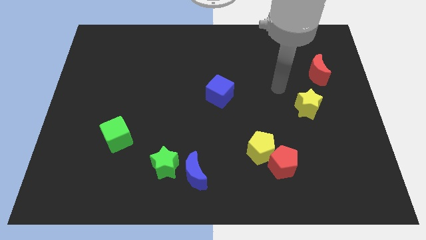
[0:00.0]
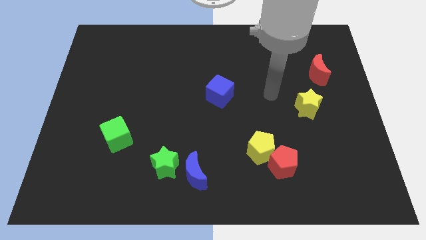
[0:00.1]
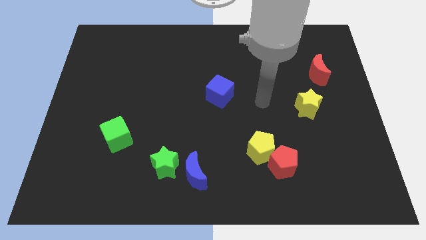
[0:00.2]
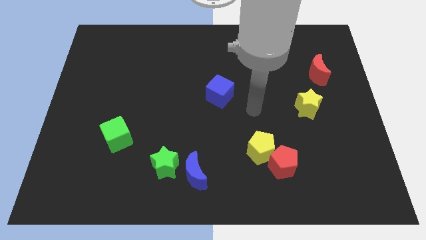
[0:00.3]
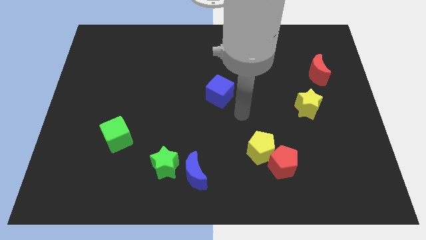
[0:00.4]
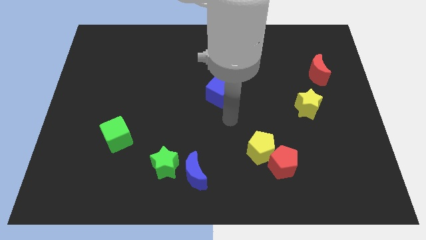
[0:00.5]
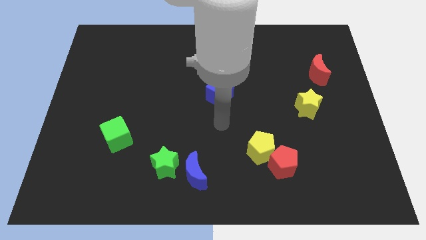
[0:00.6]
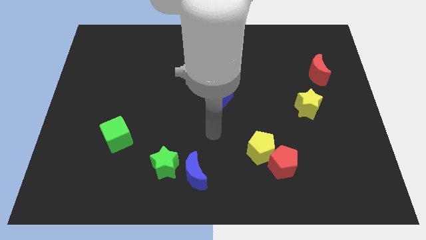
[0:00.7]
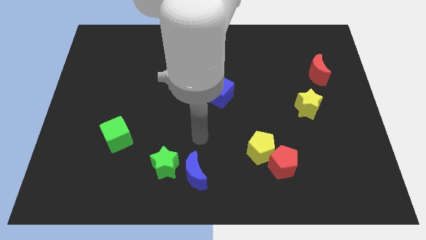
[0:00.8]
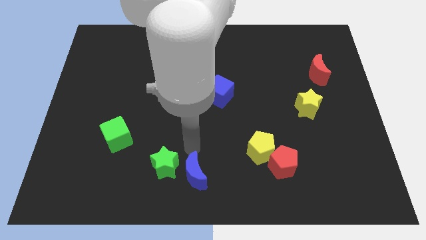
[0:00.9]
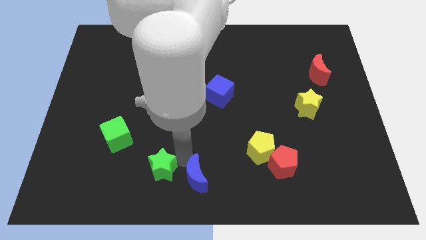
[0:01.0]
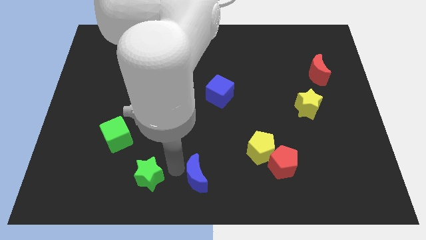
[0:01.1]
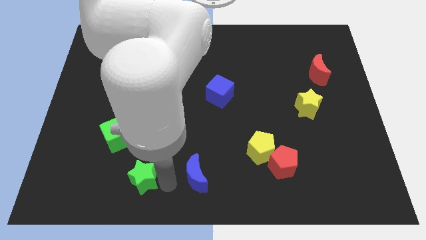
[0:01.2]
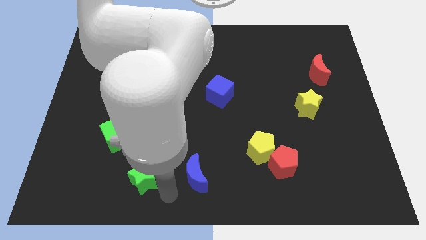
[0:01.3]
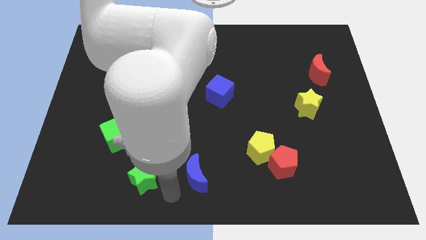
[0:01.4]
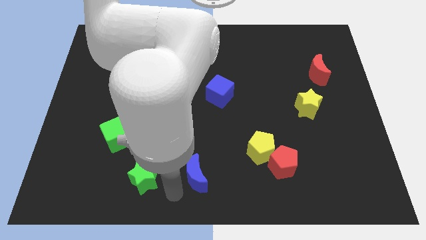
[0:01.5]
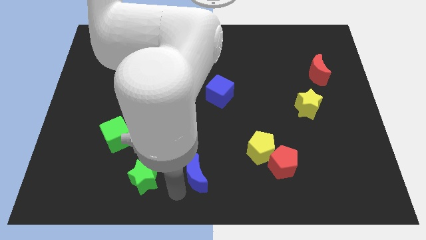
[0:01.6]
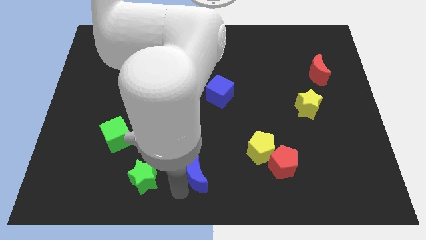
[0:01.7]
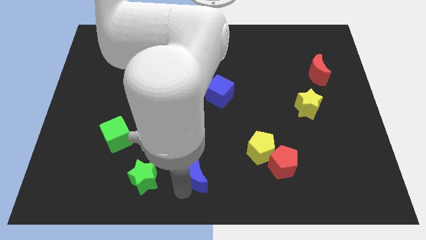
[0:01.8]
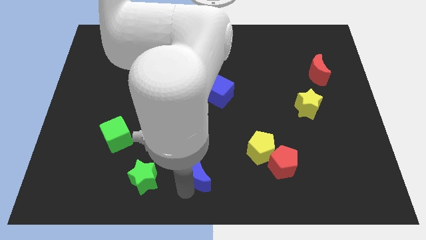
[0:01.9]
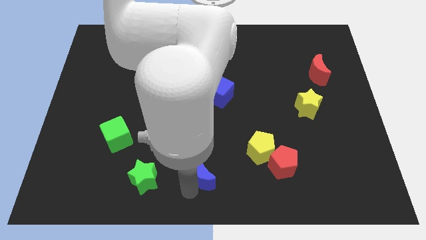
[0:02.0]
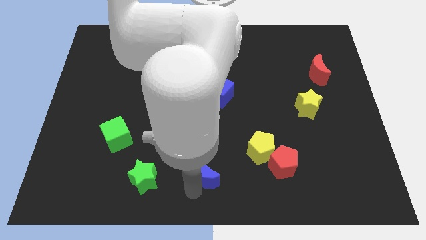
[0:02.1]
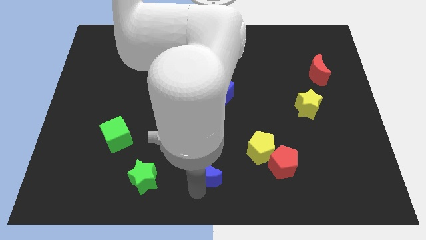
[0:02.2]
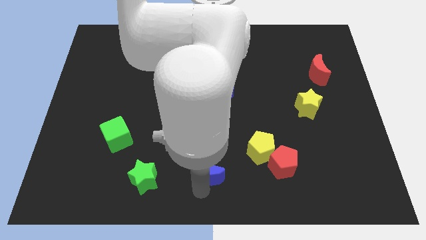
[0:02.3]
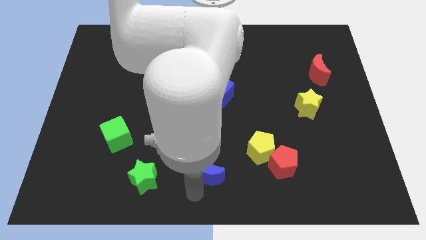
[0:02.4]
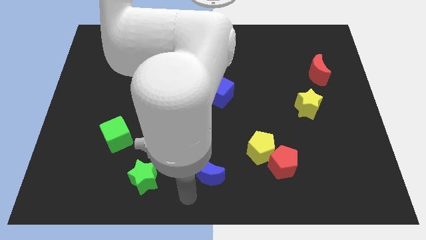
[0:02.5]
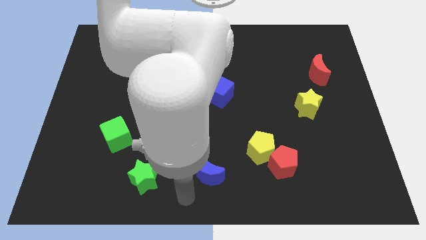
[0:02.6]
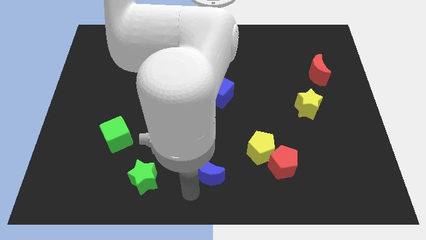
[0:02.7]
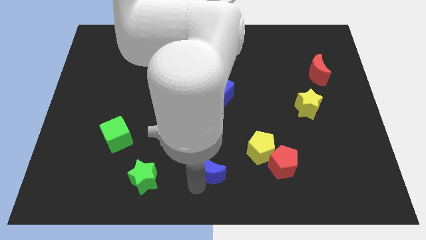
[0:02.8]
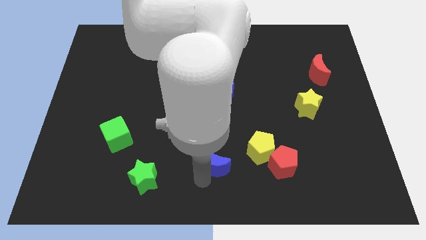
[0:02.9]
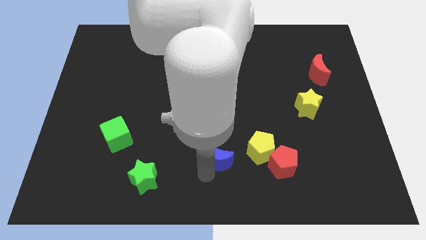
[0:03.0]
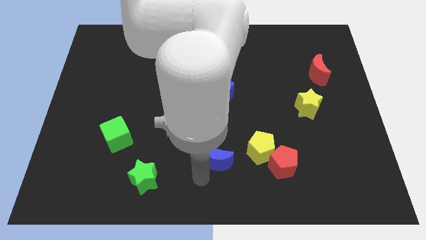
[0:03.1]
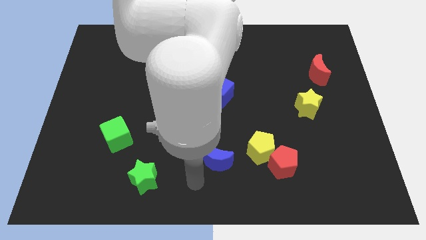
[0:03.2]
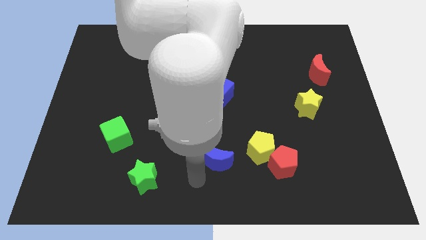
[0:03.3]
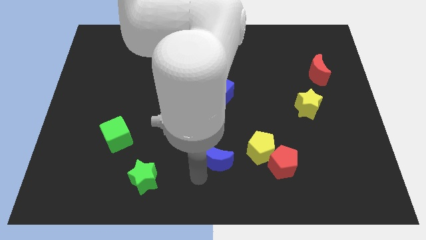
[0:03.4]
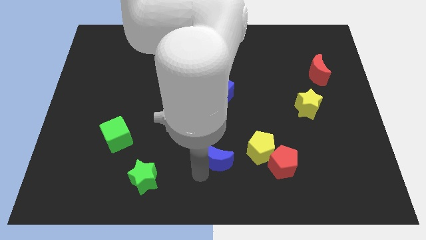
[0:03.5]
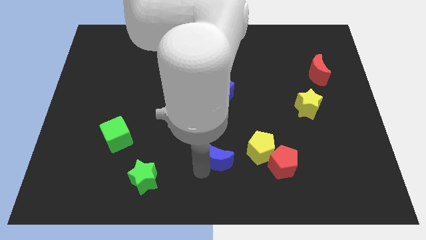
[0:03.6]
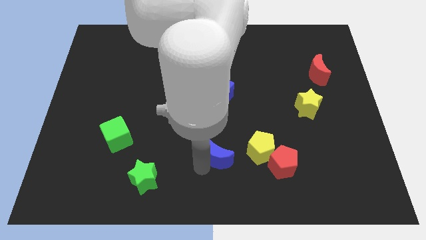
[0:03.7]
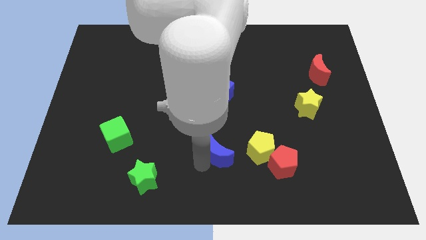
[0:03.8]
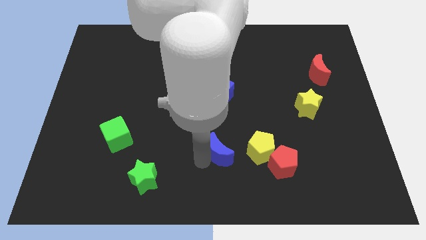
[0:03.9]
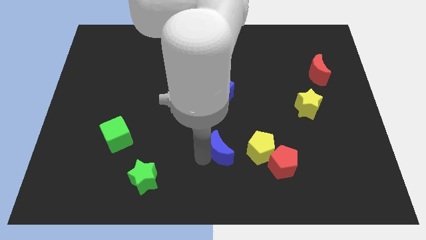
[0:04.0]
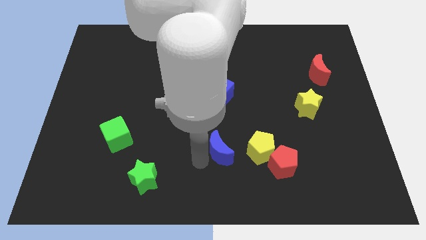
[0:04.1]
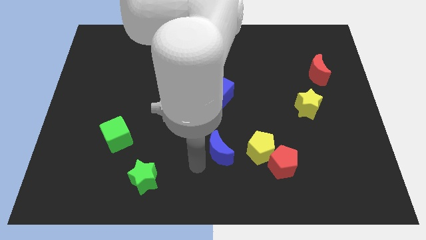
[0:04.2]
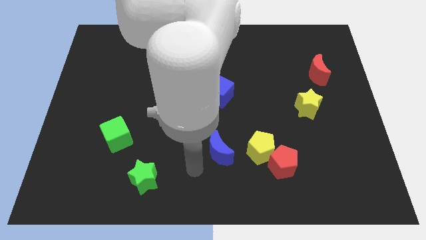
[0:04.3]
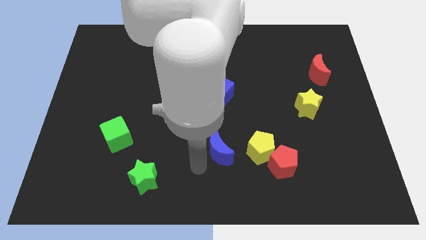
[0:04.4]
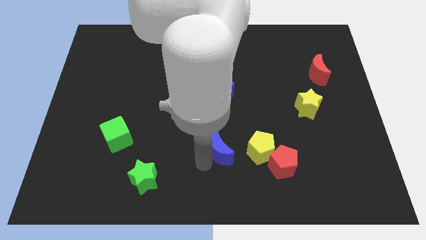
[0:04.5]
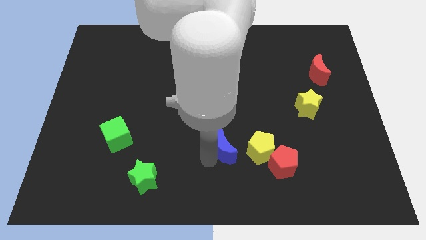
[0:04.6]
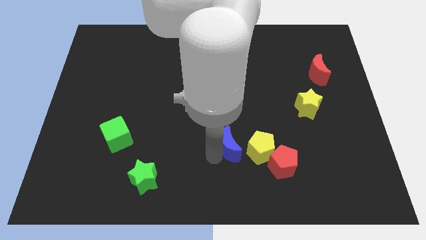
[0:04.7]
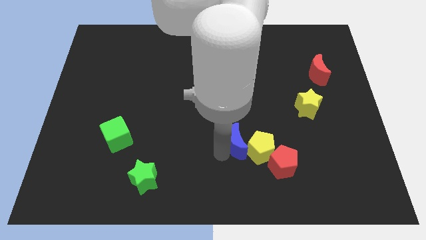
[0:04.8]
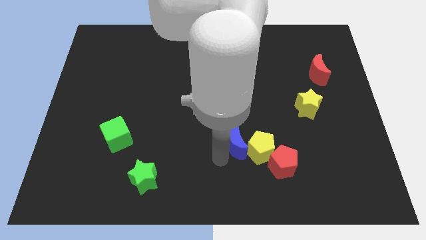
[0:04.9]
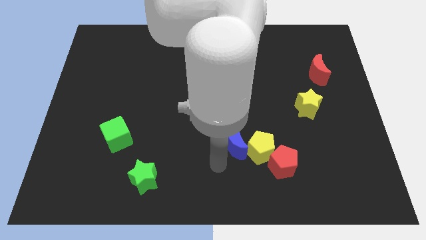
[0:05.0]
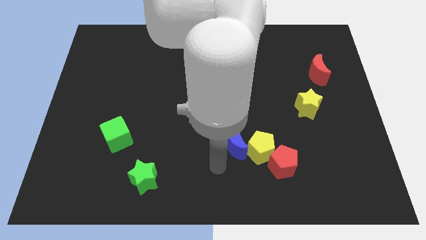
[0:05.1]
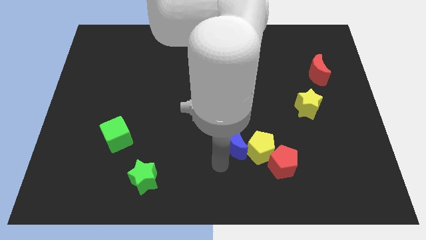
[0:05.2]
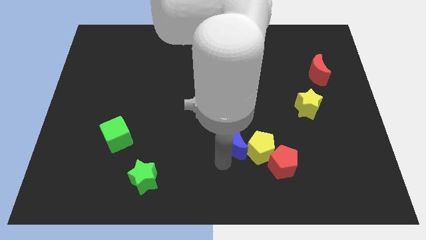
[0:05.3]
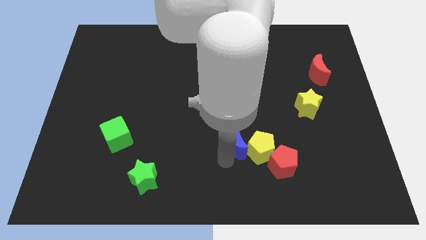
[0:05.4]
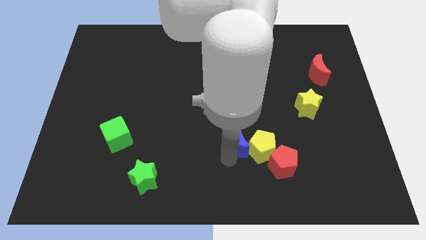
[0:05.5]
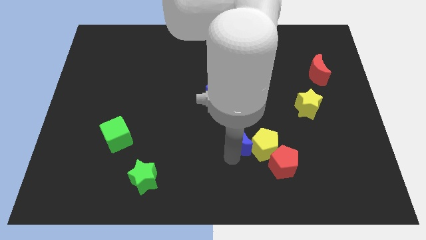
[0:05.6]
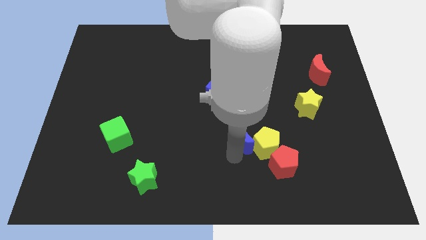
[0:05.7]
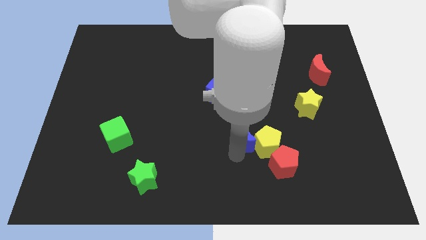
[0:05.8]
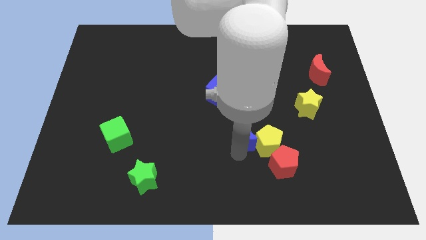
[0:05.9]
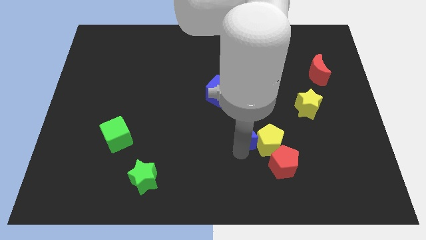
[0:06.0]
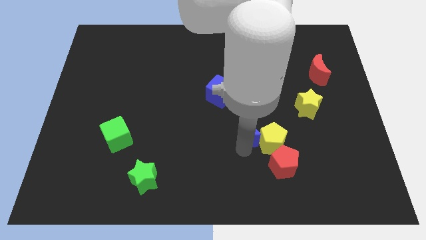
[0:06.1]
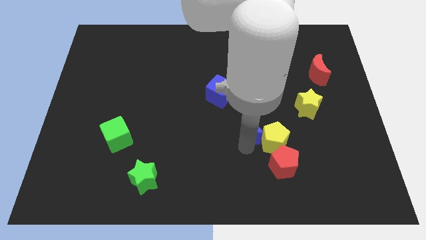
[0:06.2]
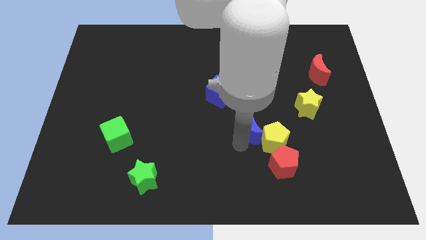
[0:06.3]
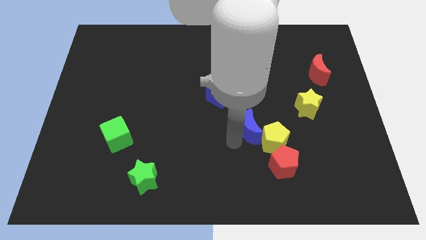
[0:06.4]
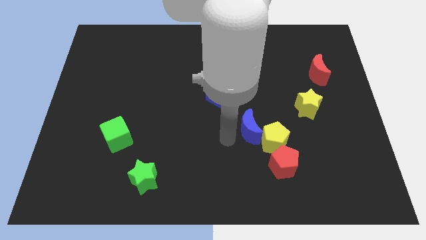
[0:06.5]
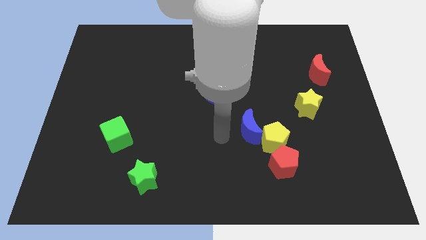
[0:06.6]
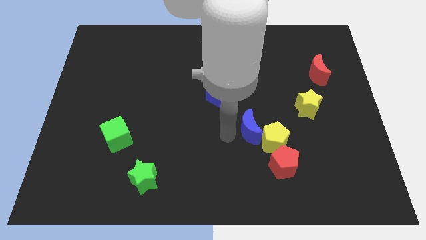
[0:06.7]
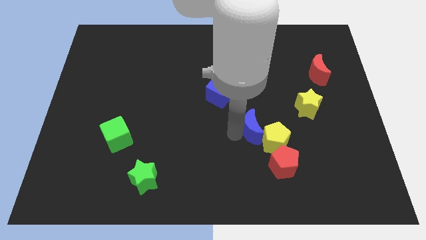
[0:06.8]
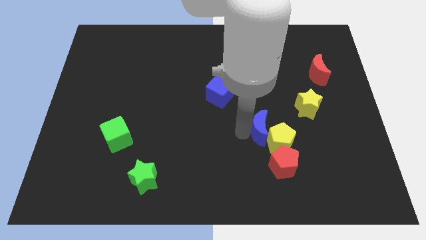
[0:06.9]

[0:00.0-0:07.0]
slide the blue moon above the red pentagon

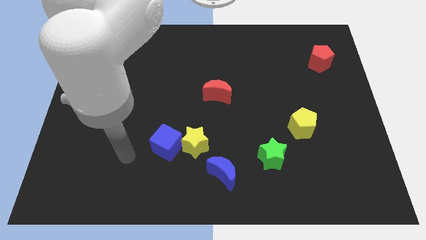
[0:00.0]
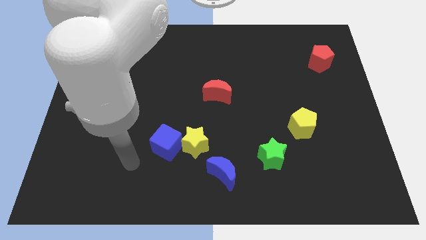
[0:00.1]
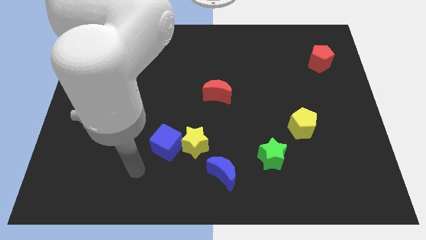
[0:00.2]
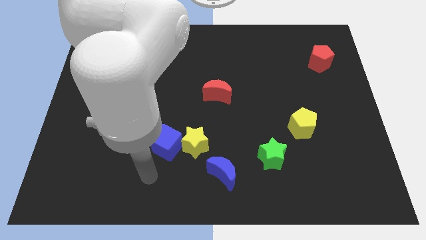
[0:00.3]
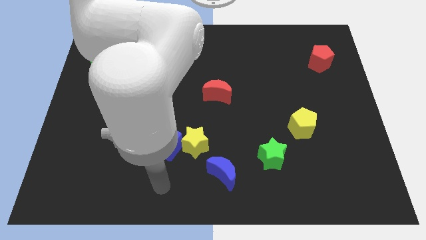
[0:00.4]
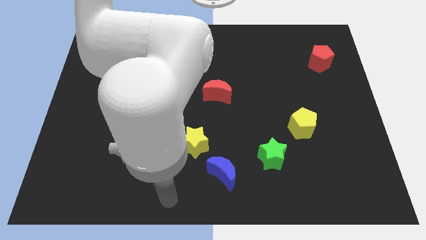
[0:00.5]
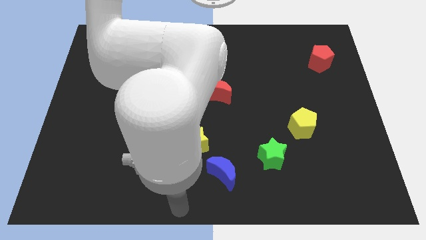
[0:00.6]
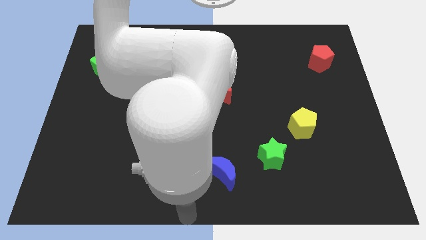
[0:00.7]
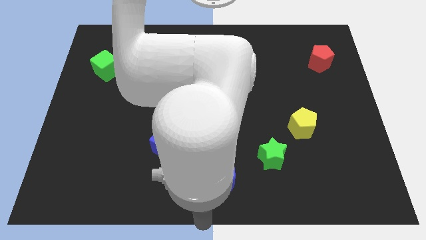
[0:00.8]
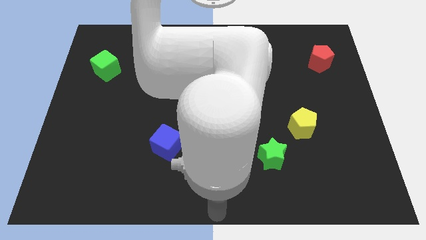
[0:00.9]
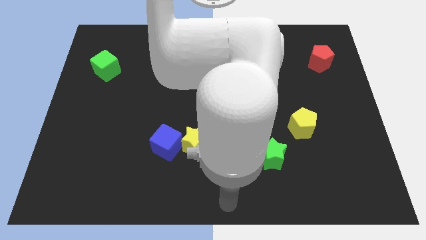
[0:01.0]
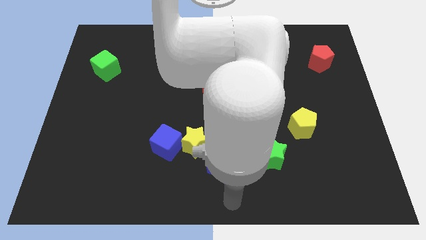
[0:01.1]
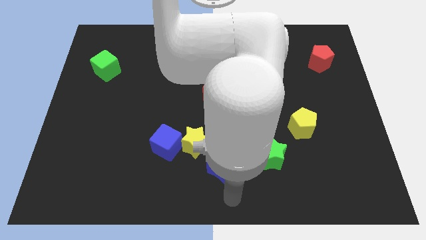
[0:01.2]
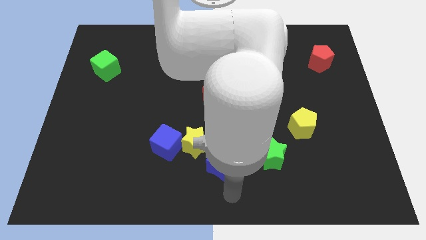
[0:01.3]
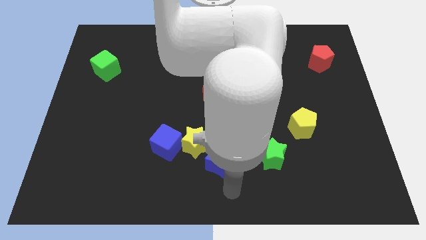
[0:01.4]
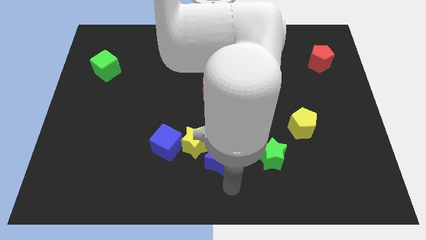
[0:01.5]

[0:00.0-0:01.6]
put the blue moon just right of the blue cube
